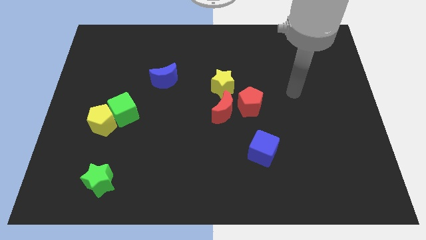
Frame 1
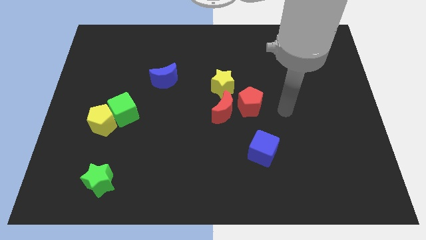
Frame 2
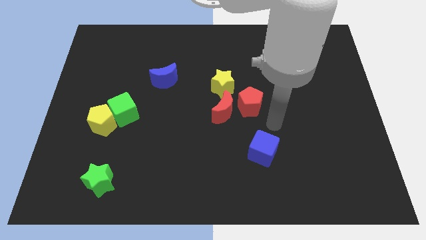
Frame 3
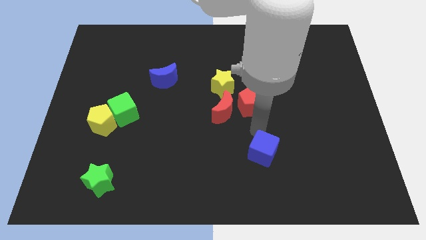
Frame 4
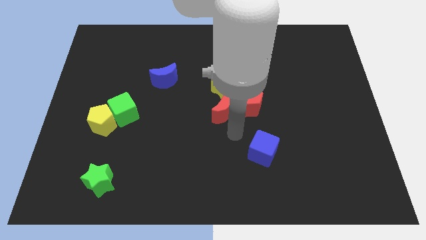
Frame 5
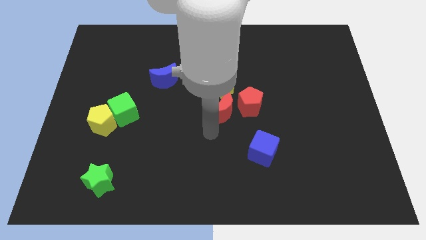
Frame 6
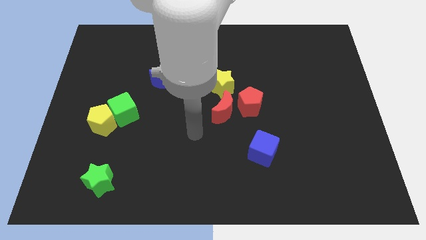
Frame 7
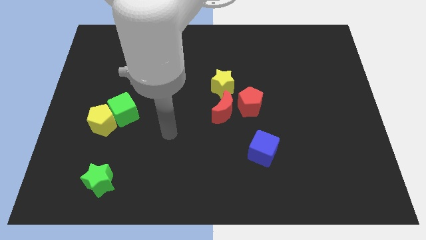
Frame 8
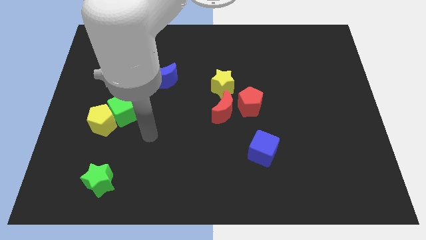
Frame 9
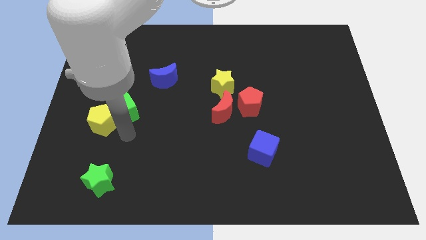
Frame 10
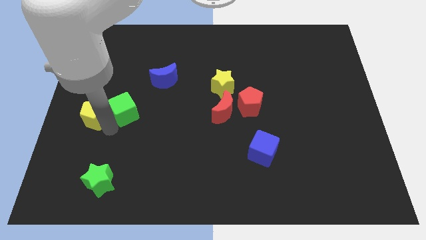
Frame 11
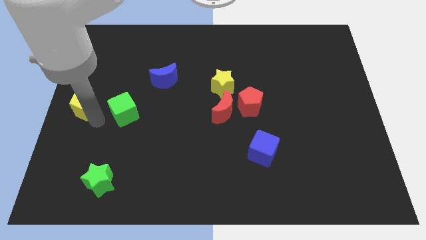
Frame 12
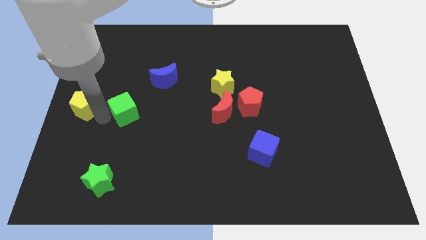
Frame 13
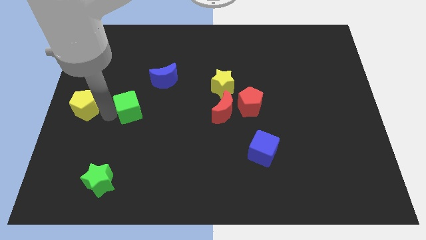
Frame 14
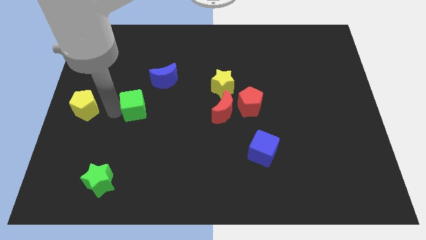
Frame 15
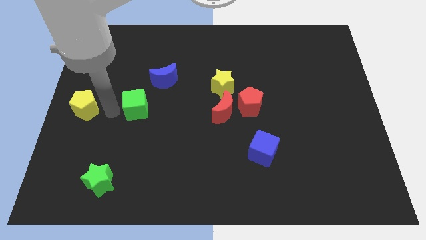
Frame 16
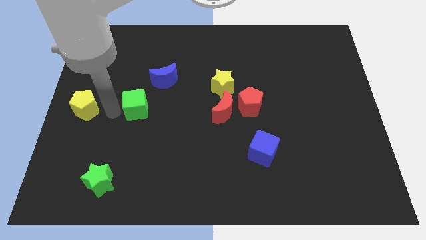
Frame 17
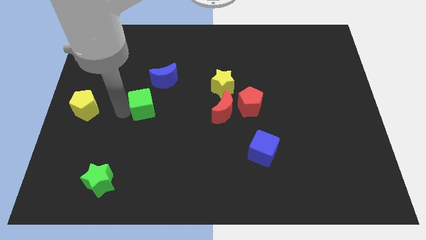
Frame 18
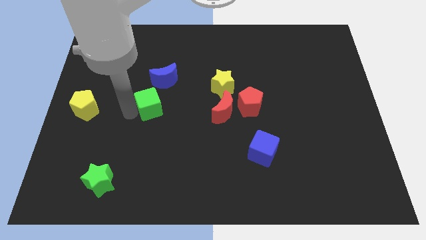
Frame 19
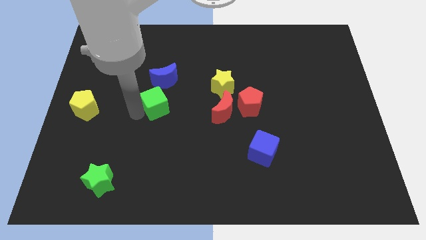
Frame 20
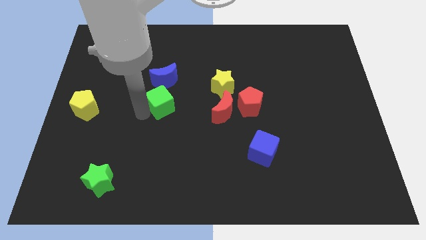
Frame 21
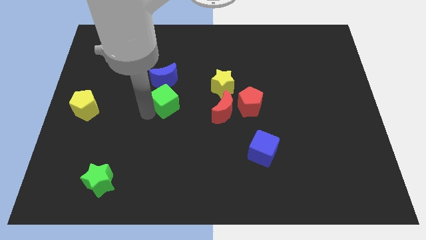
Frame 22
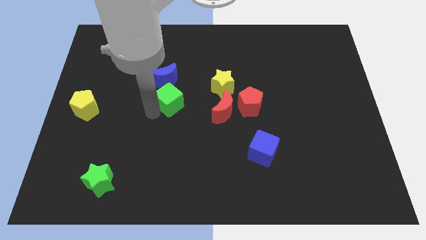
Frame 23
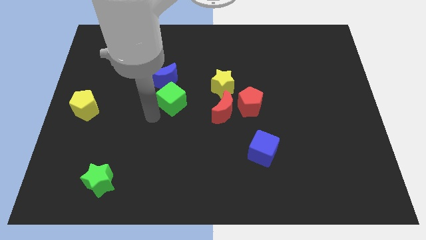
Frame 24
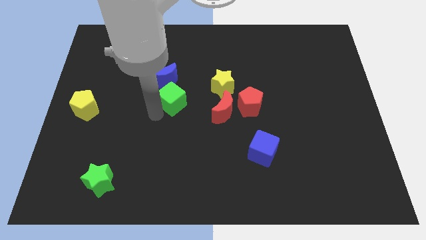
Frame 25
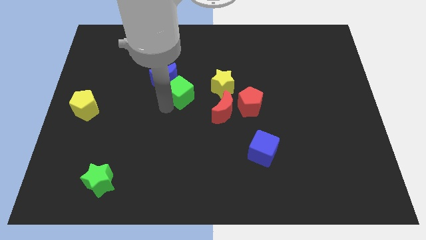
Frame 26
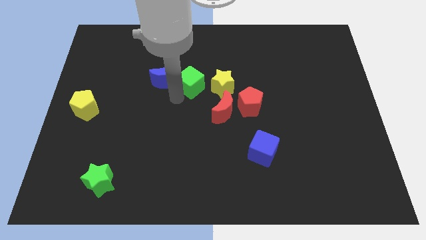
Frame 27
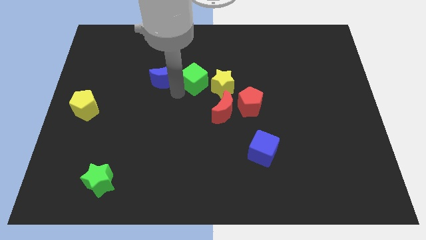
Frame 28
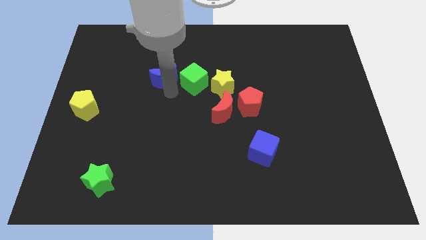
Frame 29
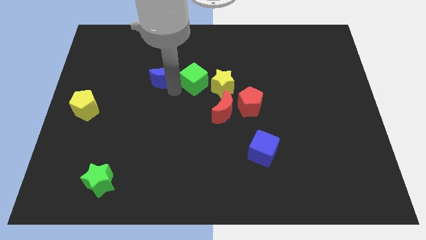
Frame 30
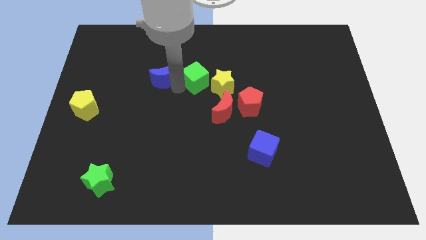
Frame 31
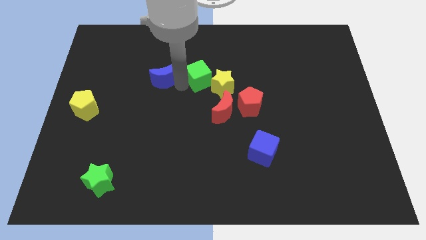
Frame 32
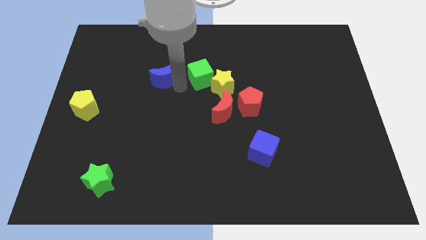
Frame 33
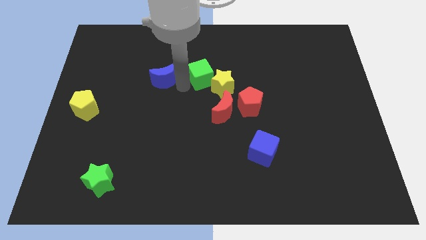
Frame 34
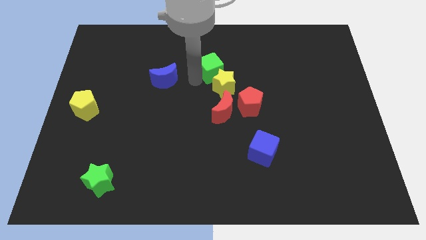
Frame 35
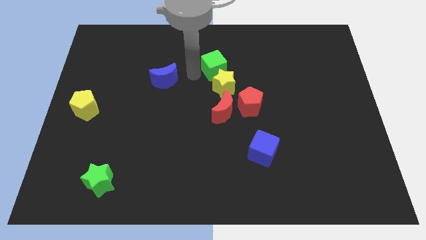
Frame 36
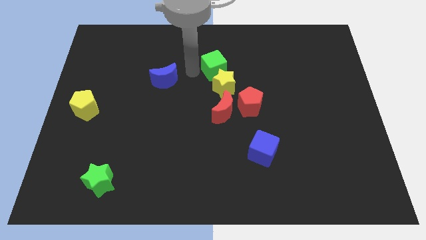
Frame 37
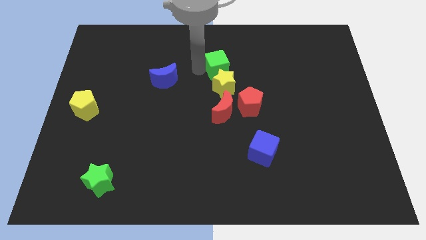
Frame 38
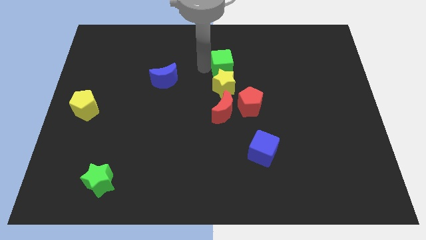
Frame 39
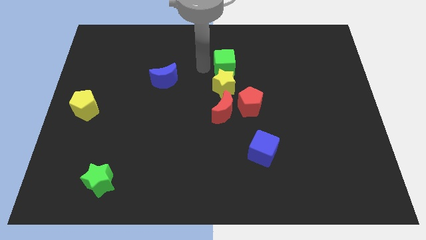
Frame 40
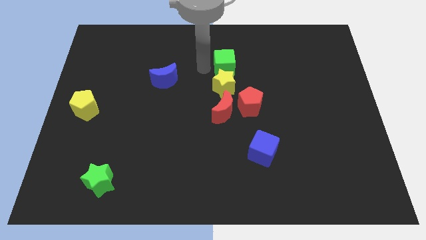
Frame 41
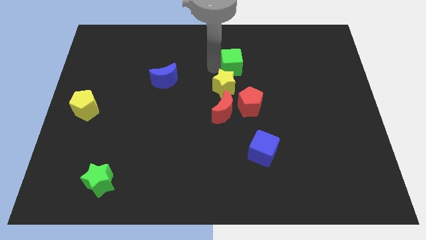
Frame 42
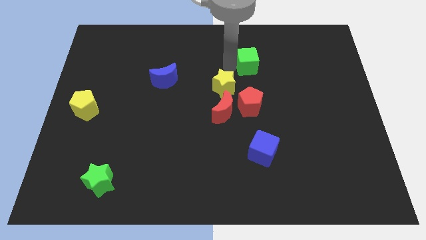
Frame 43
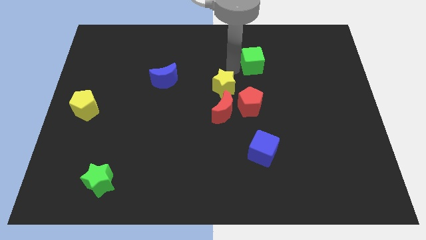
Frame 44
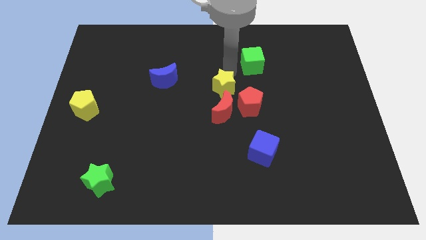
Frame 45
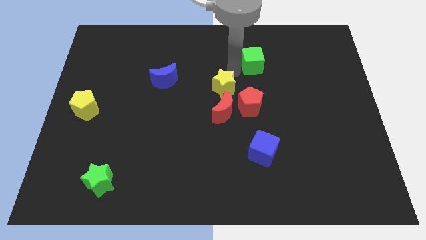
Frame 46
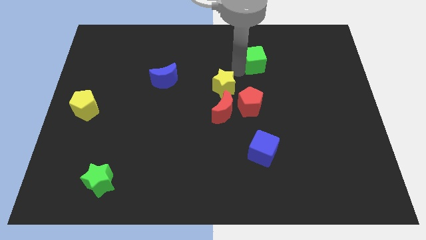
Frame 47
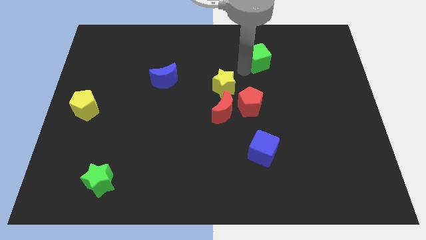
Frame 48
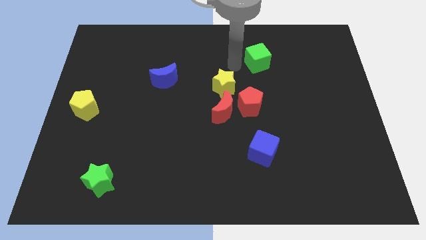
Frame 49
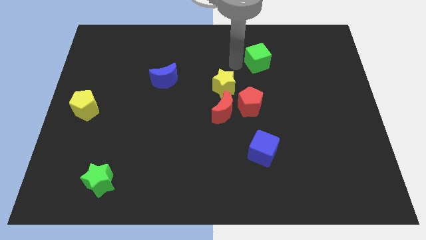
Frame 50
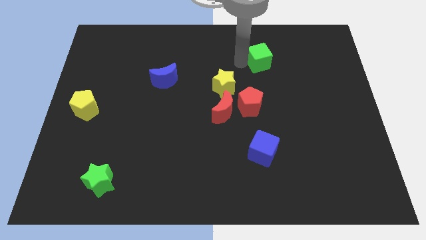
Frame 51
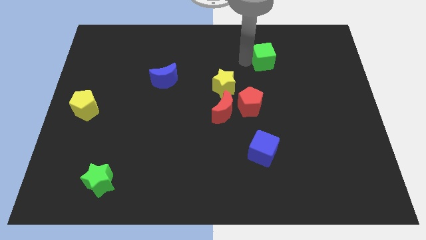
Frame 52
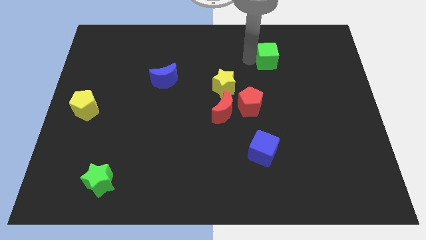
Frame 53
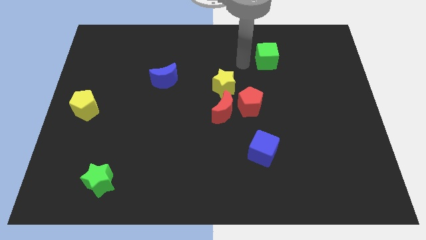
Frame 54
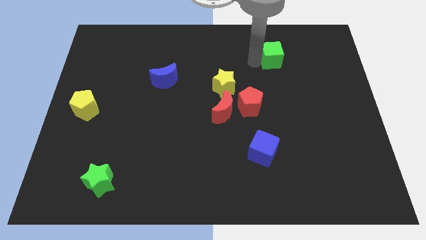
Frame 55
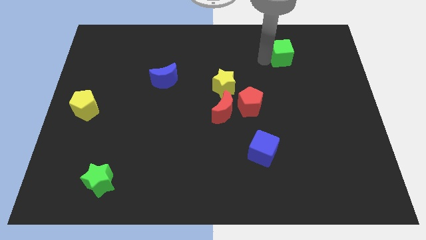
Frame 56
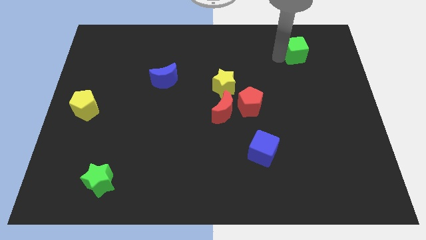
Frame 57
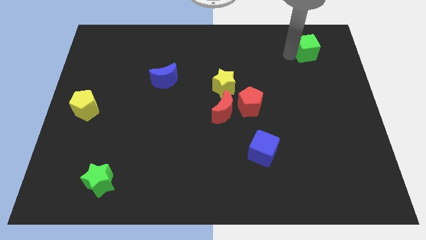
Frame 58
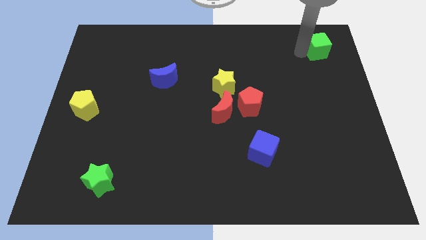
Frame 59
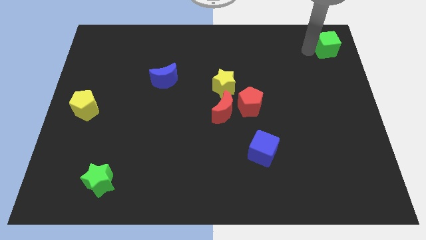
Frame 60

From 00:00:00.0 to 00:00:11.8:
push the green cube to the upper right corner

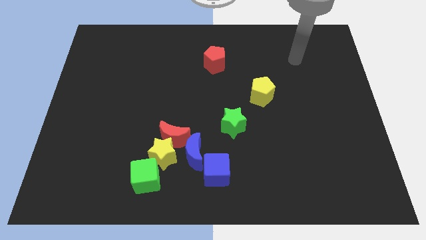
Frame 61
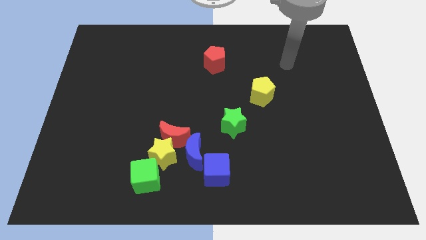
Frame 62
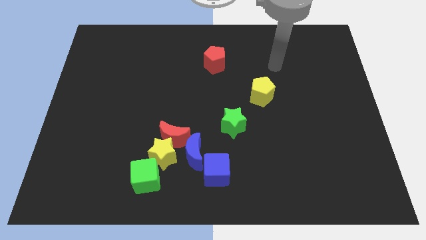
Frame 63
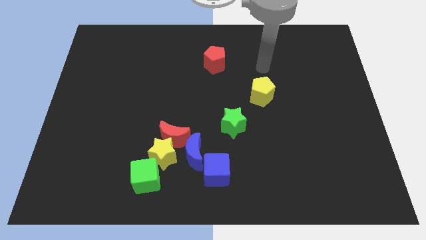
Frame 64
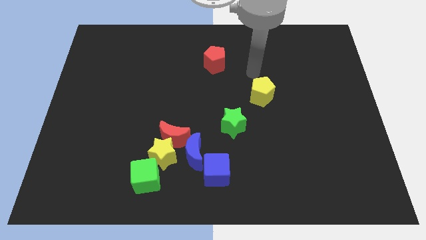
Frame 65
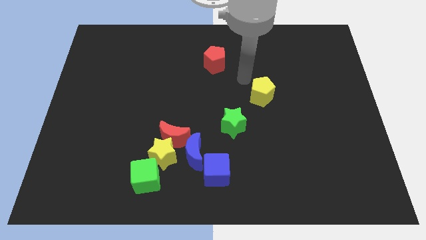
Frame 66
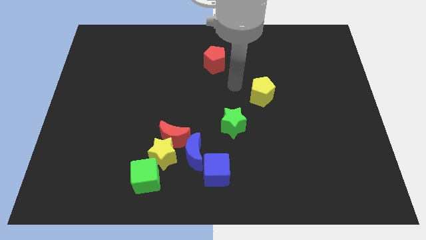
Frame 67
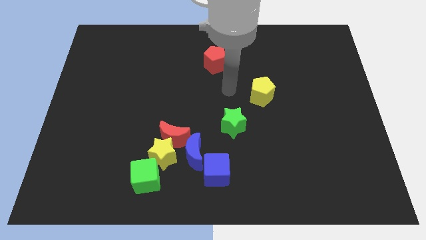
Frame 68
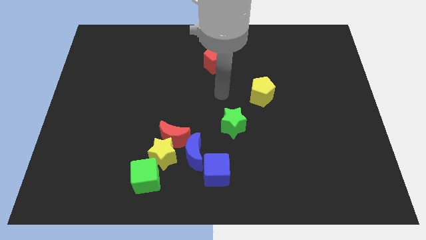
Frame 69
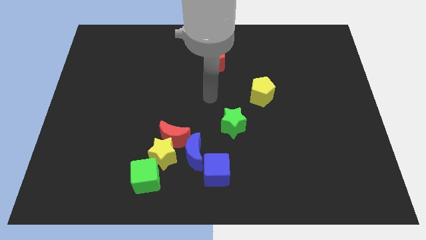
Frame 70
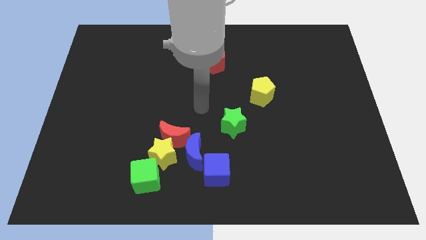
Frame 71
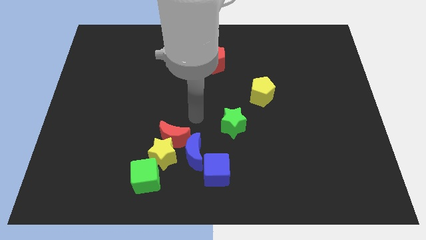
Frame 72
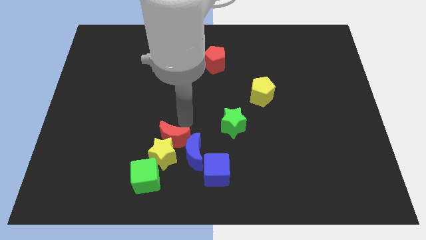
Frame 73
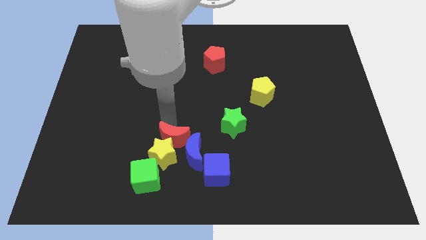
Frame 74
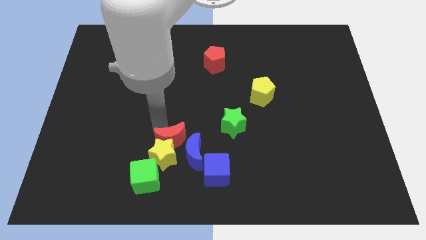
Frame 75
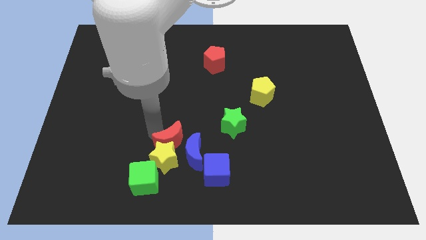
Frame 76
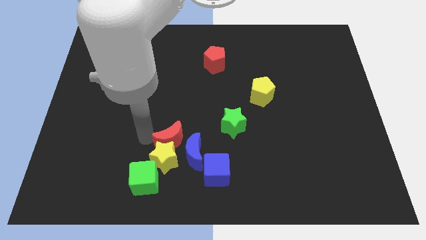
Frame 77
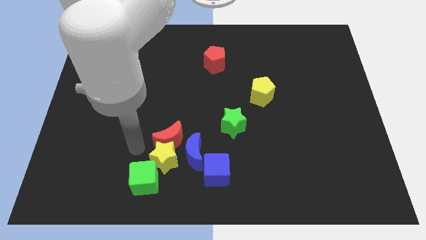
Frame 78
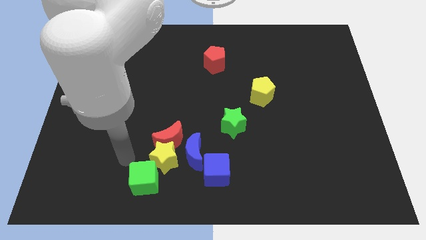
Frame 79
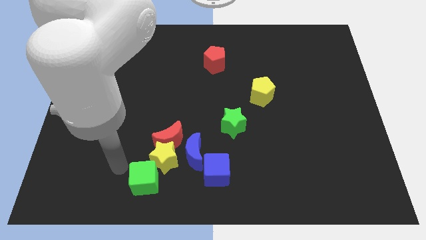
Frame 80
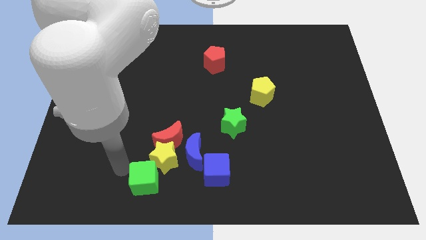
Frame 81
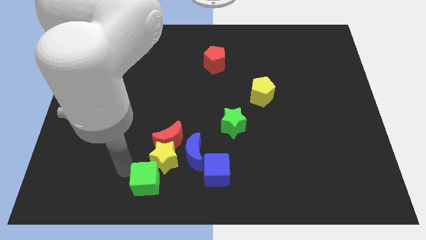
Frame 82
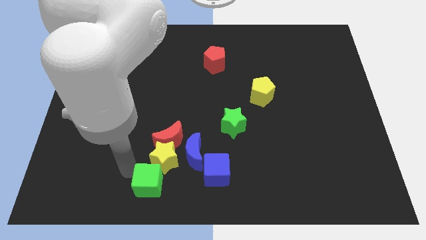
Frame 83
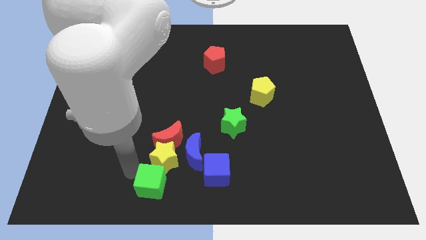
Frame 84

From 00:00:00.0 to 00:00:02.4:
put the green cube to the bottom
